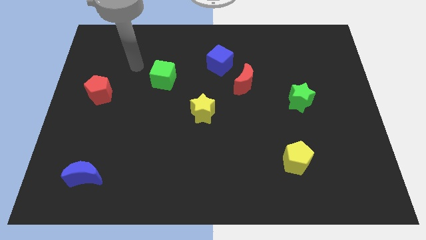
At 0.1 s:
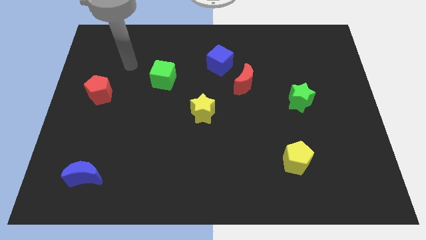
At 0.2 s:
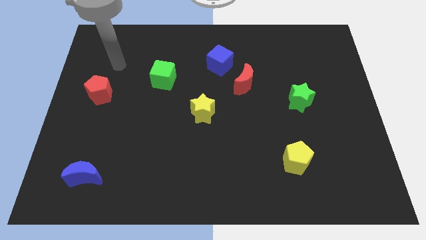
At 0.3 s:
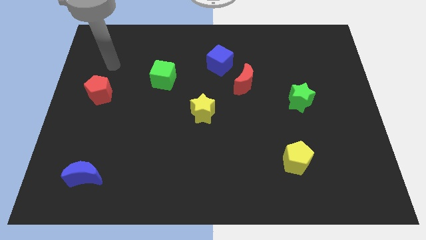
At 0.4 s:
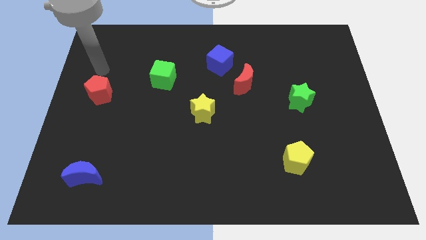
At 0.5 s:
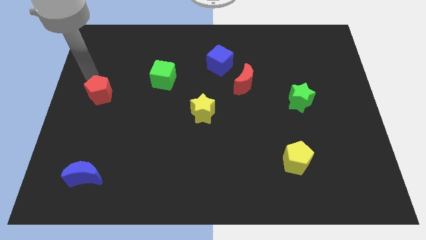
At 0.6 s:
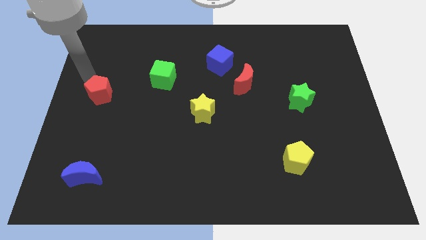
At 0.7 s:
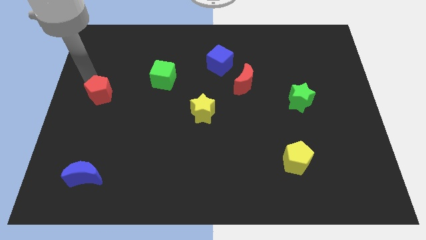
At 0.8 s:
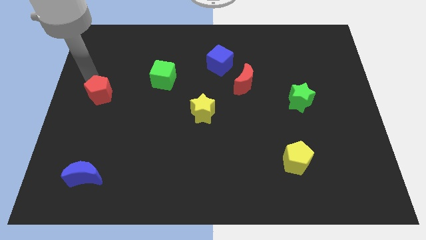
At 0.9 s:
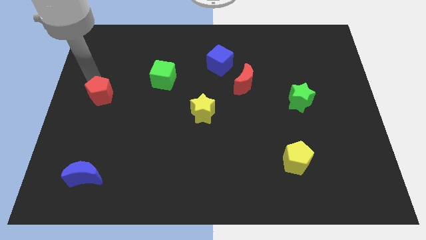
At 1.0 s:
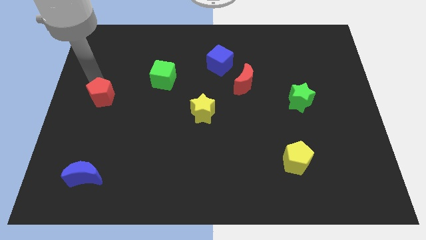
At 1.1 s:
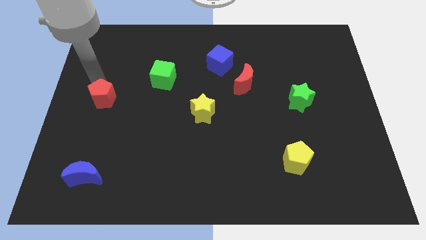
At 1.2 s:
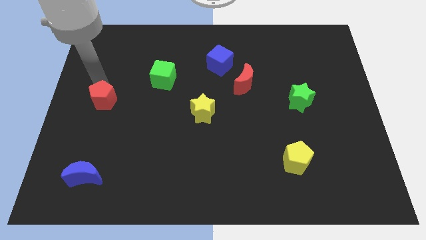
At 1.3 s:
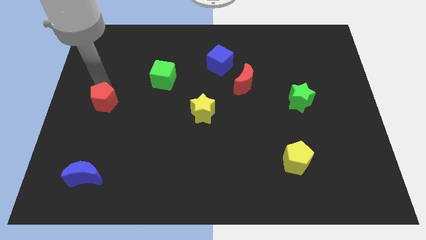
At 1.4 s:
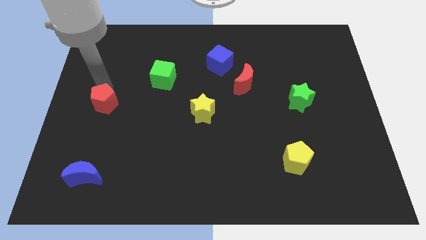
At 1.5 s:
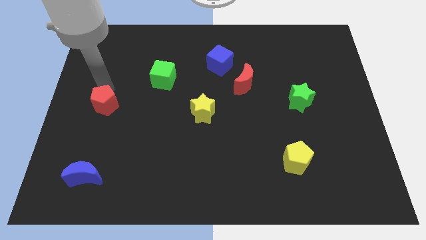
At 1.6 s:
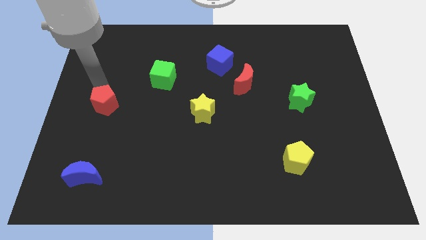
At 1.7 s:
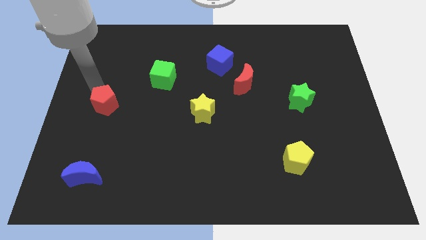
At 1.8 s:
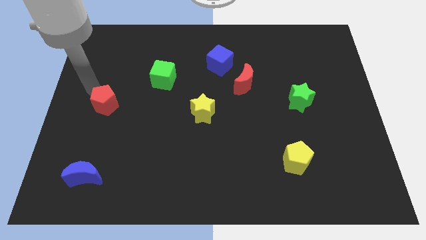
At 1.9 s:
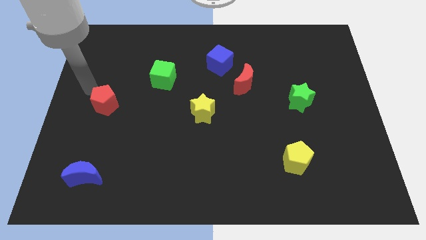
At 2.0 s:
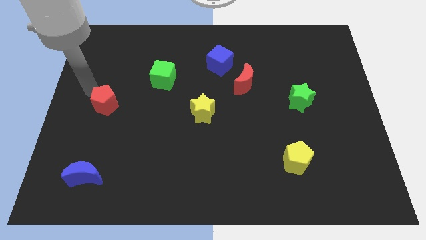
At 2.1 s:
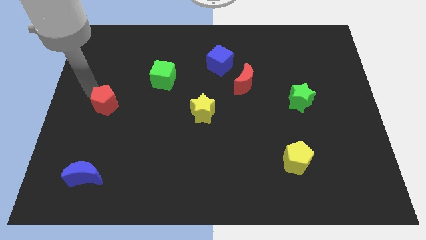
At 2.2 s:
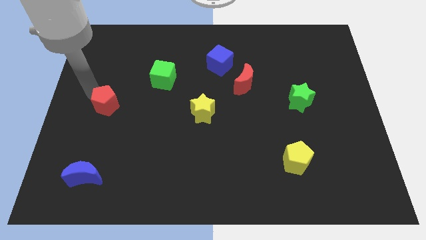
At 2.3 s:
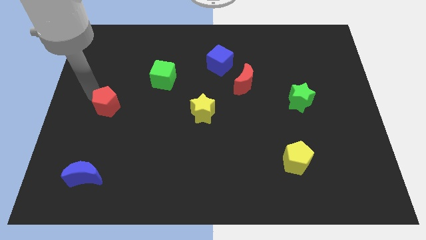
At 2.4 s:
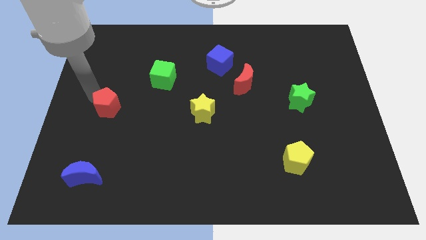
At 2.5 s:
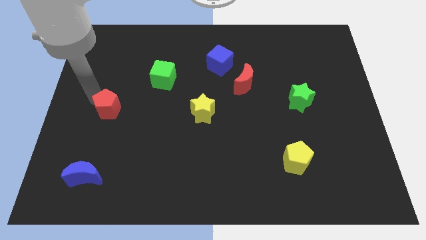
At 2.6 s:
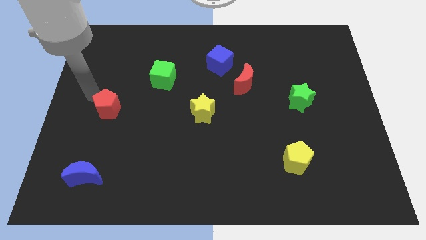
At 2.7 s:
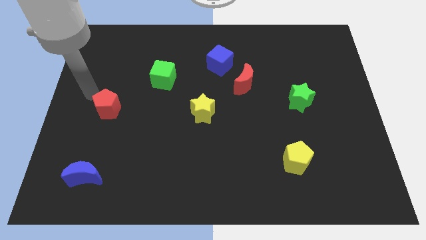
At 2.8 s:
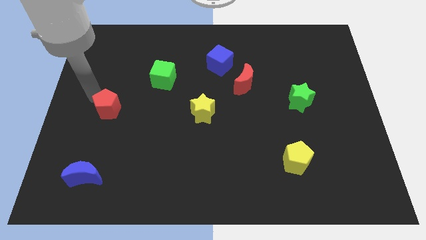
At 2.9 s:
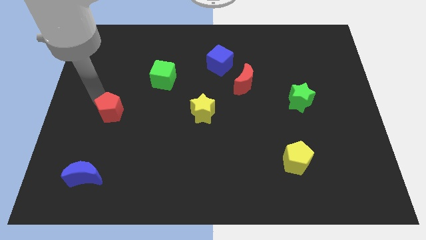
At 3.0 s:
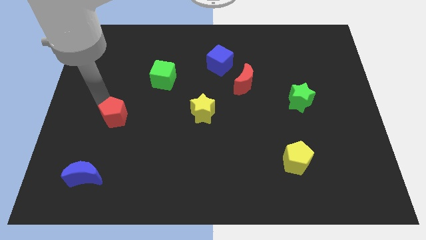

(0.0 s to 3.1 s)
push the red pentagon diagonally downwards and right a bit

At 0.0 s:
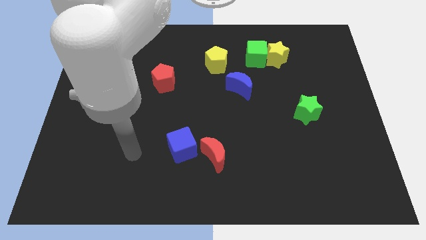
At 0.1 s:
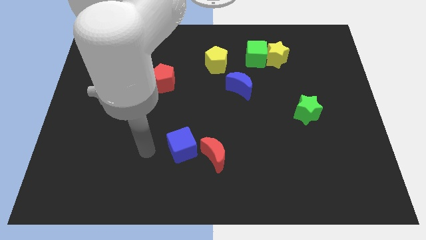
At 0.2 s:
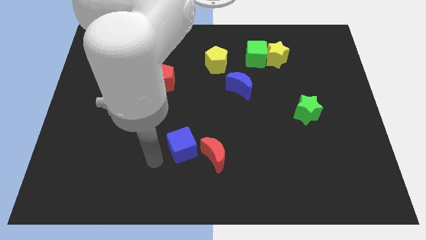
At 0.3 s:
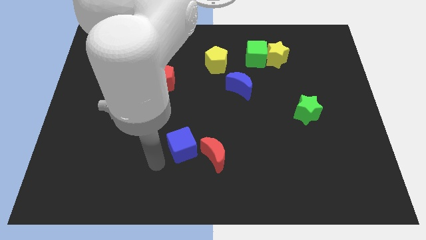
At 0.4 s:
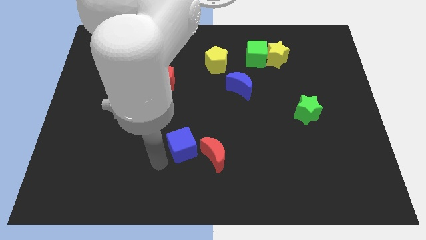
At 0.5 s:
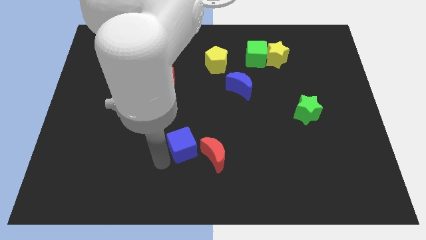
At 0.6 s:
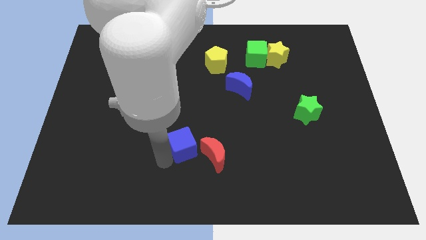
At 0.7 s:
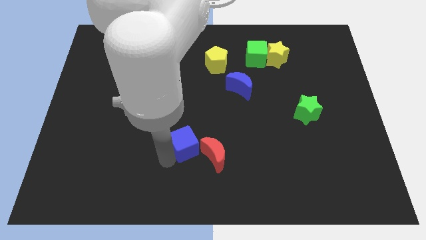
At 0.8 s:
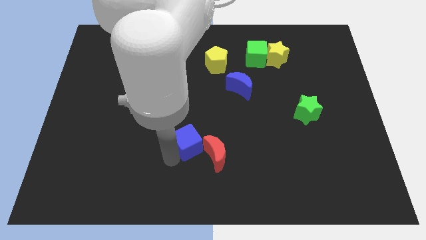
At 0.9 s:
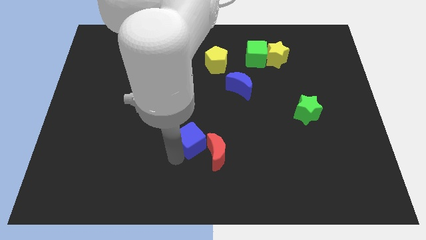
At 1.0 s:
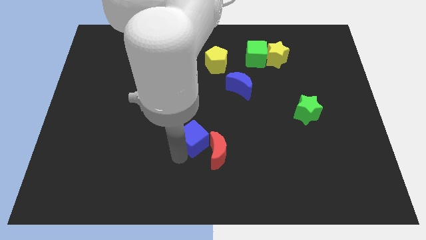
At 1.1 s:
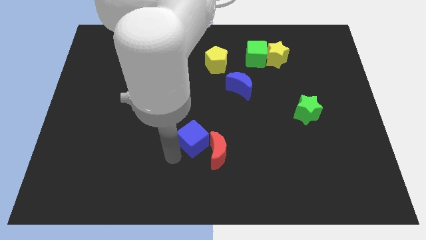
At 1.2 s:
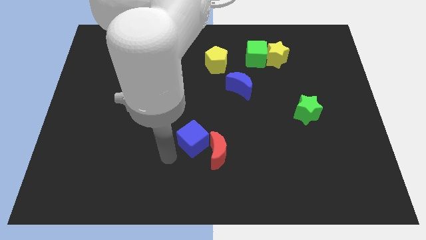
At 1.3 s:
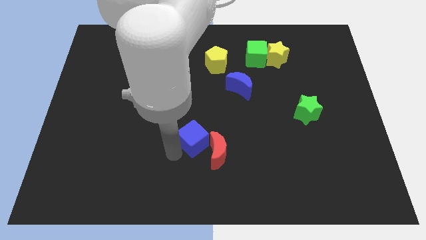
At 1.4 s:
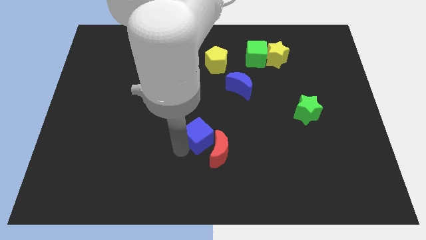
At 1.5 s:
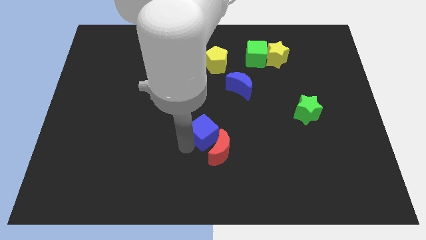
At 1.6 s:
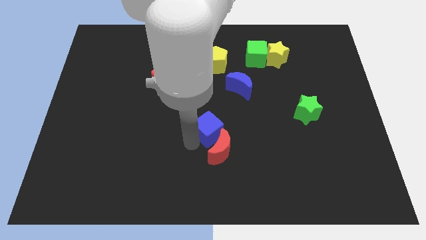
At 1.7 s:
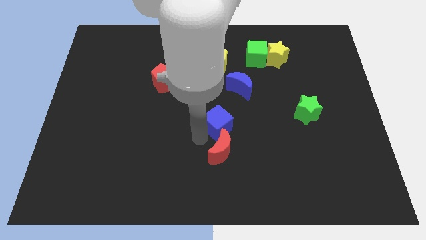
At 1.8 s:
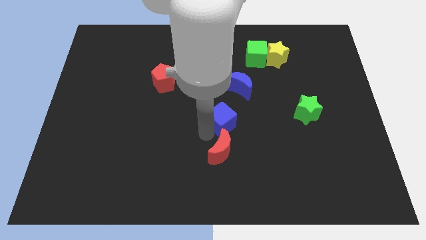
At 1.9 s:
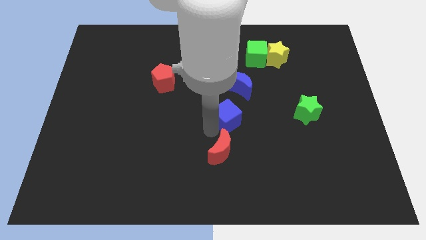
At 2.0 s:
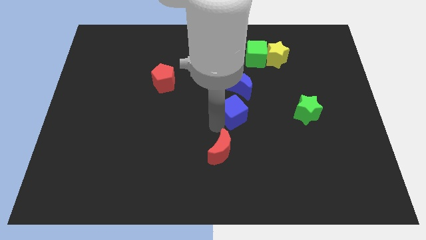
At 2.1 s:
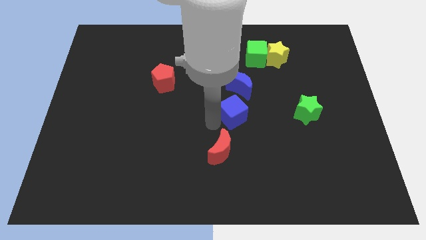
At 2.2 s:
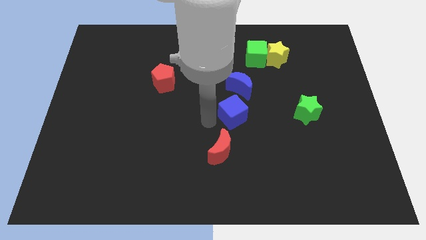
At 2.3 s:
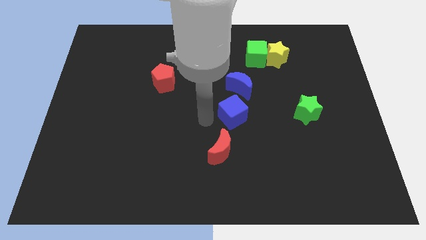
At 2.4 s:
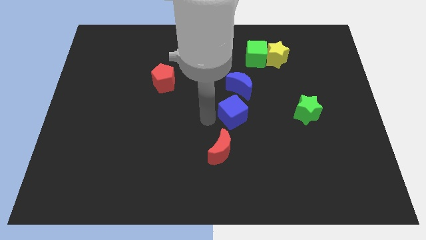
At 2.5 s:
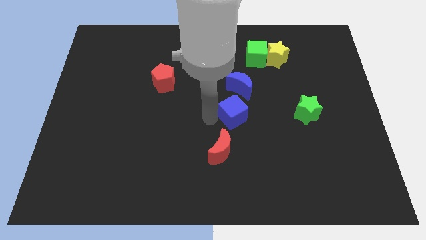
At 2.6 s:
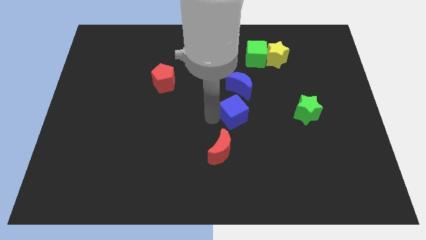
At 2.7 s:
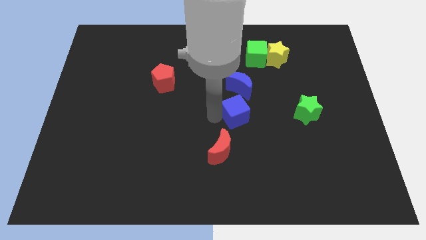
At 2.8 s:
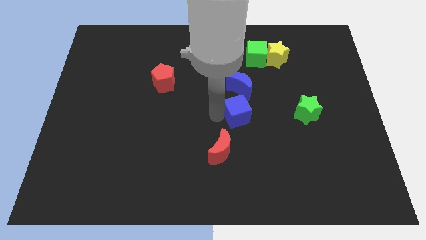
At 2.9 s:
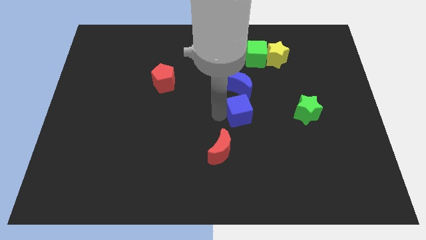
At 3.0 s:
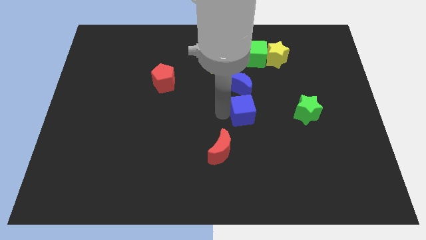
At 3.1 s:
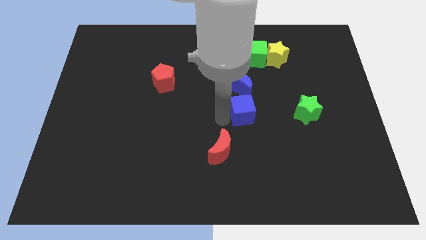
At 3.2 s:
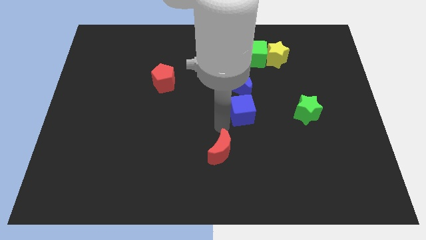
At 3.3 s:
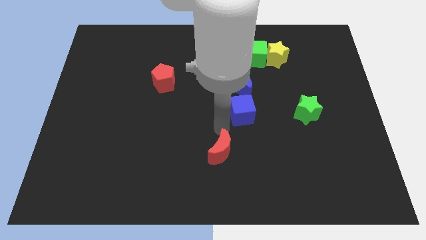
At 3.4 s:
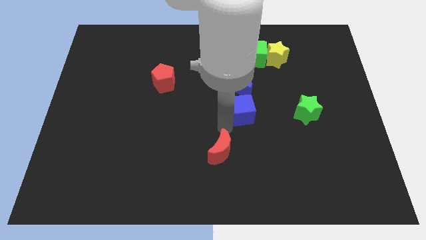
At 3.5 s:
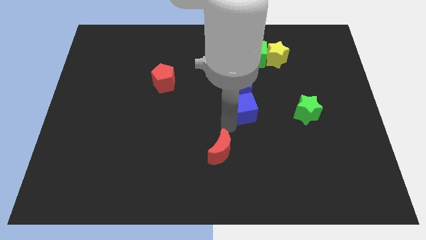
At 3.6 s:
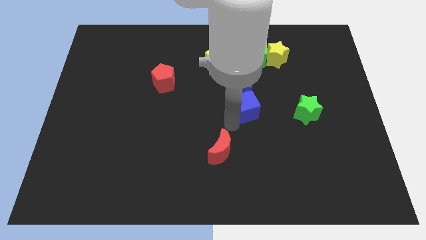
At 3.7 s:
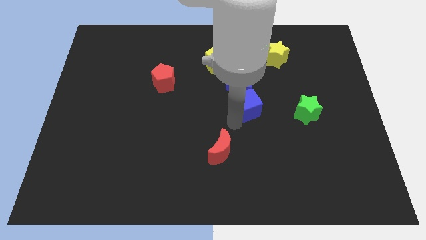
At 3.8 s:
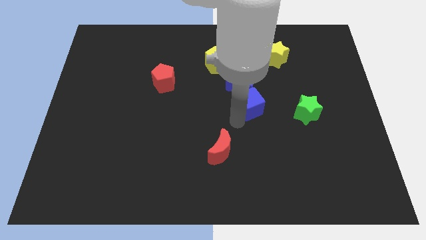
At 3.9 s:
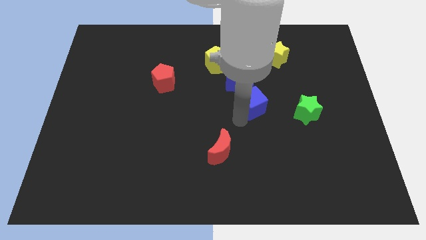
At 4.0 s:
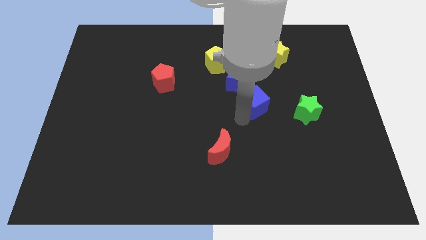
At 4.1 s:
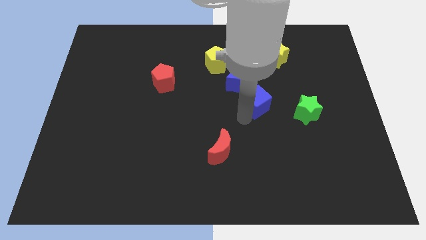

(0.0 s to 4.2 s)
slide the blue cube up and then right

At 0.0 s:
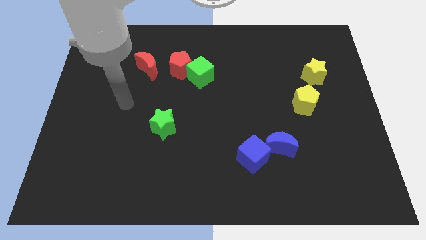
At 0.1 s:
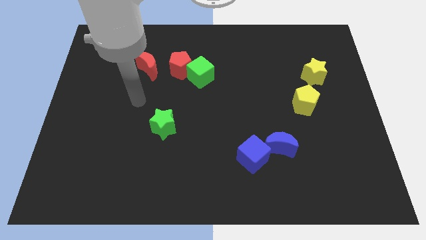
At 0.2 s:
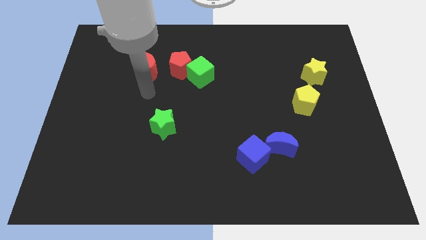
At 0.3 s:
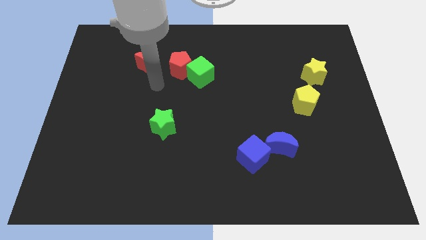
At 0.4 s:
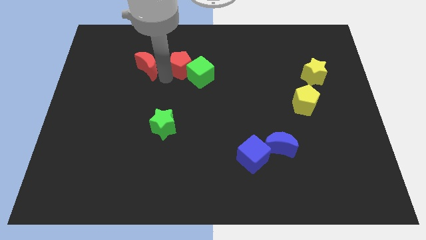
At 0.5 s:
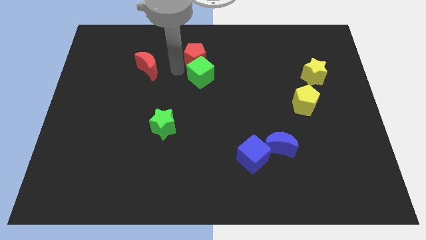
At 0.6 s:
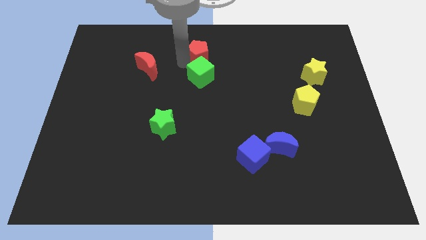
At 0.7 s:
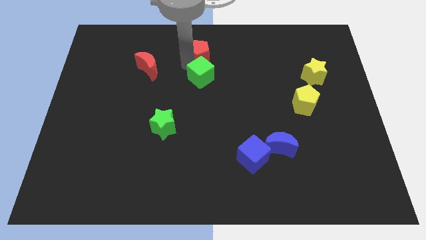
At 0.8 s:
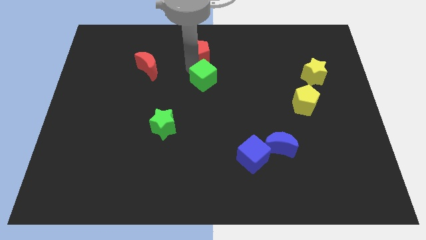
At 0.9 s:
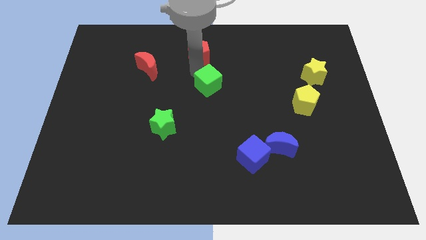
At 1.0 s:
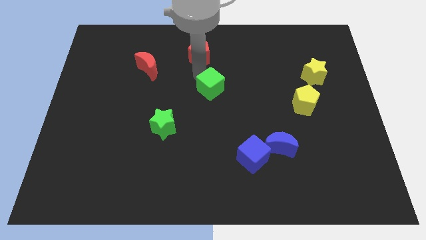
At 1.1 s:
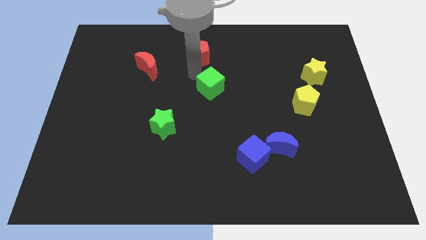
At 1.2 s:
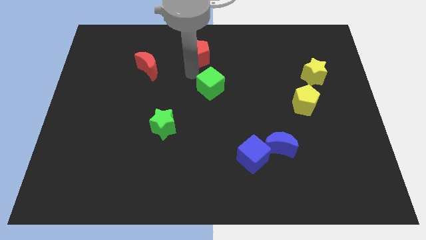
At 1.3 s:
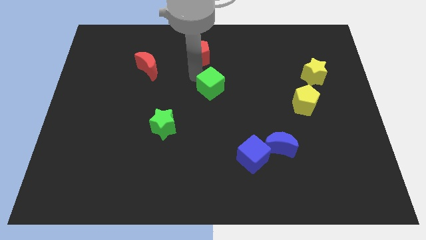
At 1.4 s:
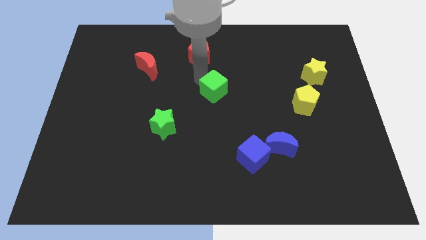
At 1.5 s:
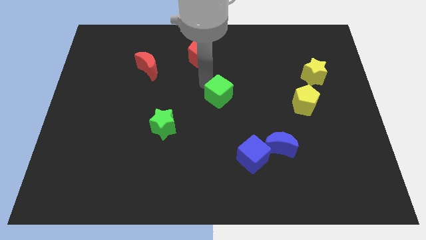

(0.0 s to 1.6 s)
slightly move the green cube downwards and then to the right
